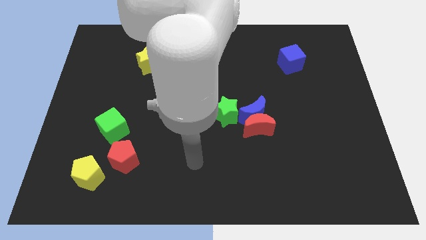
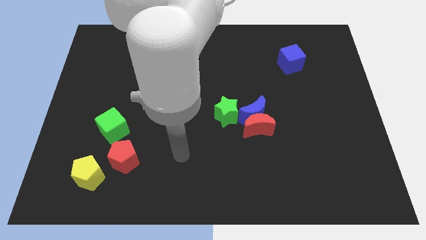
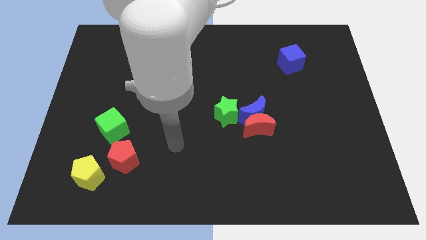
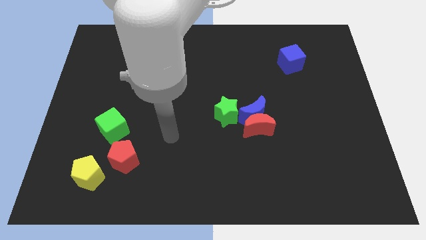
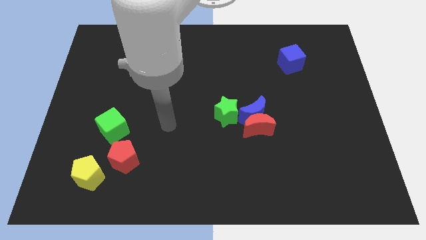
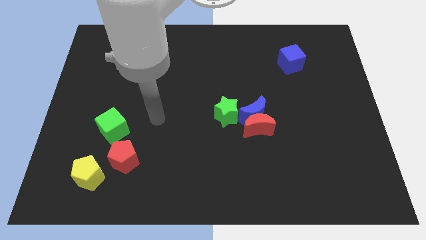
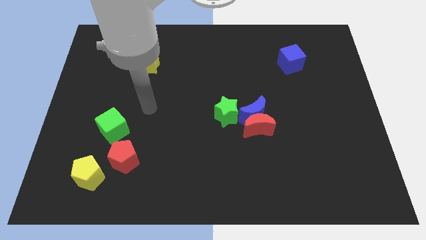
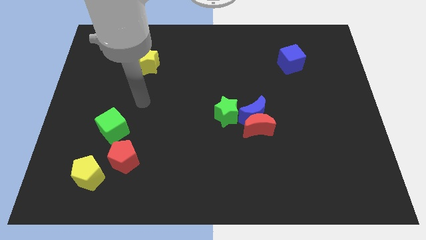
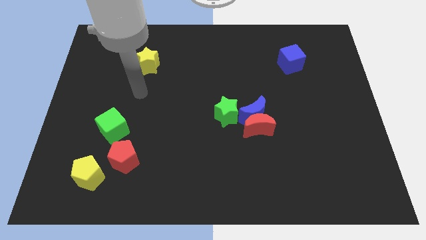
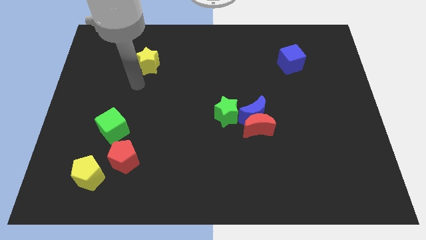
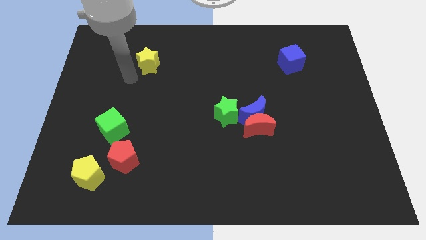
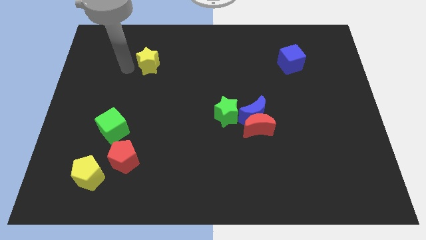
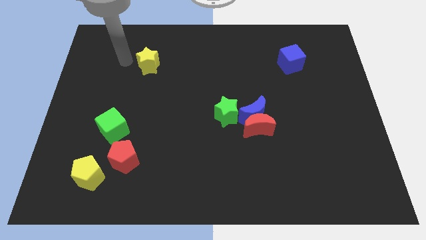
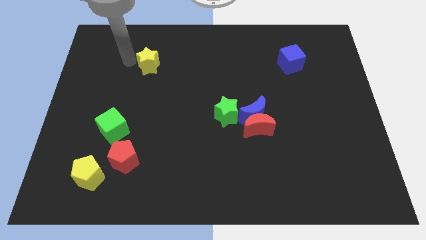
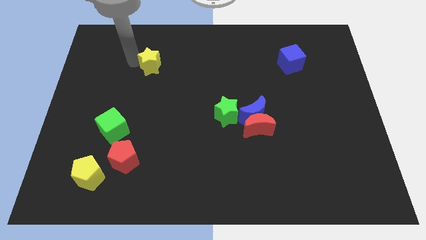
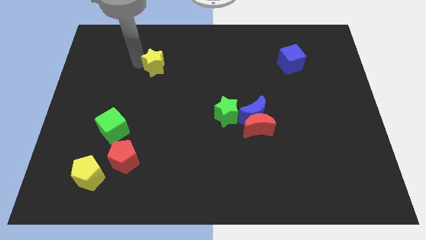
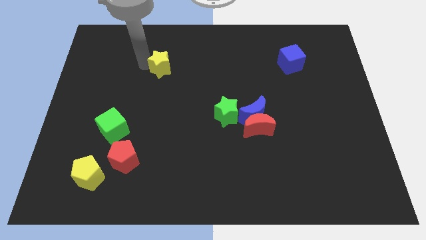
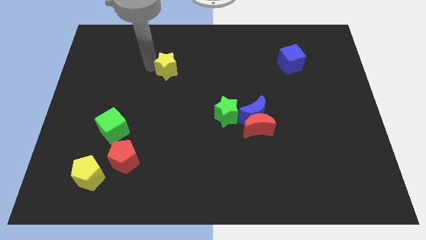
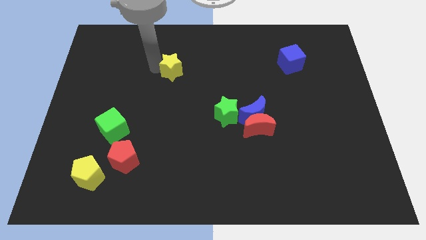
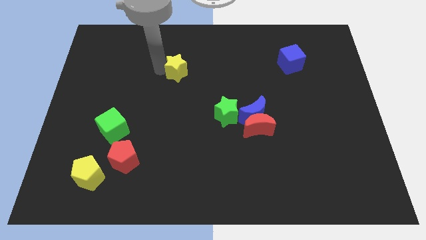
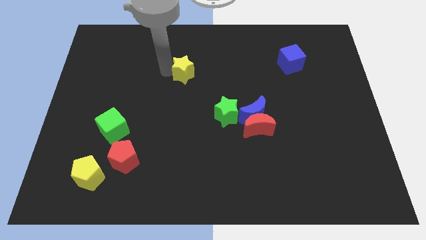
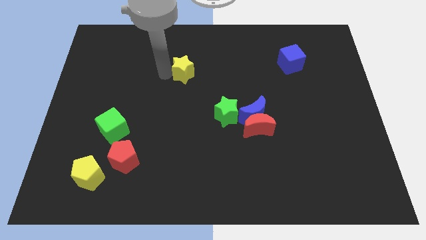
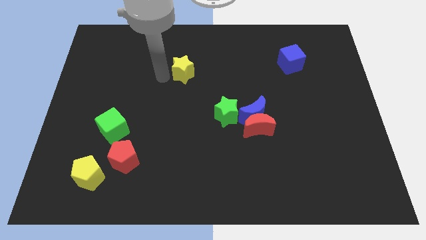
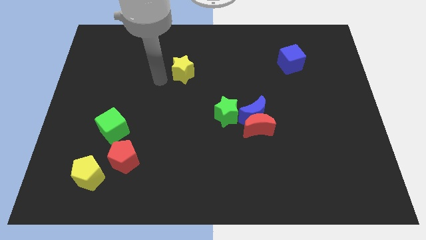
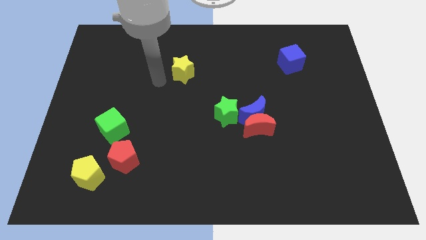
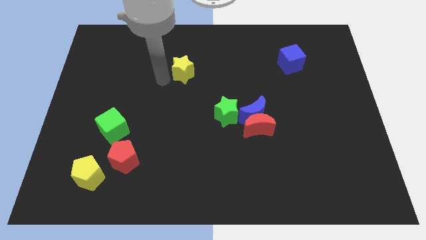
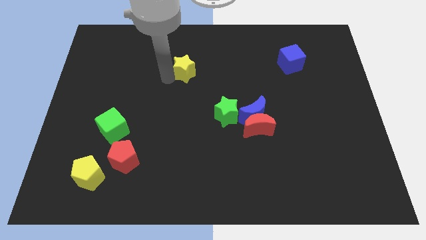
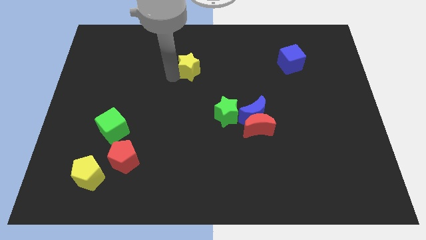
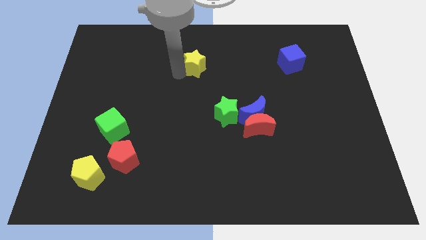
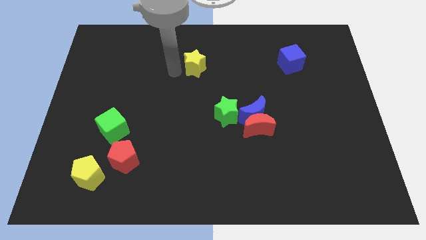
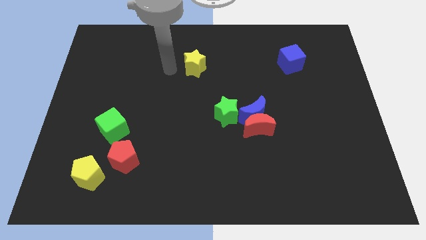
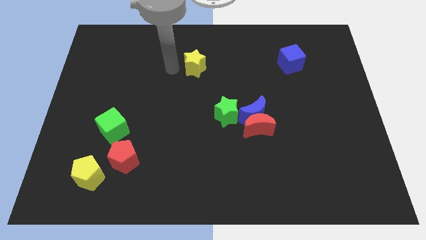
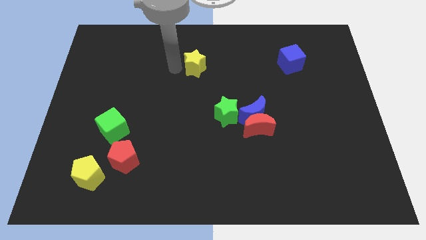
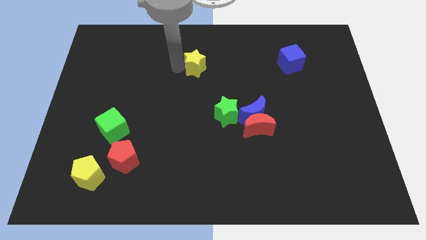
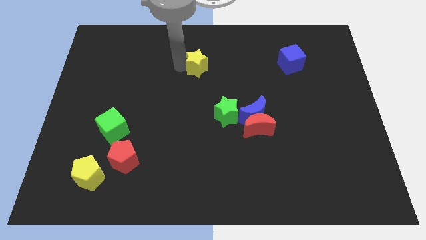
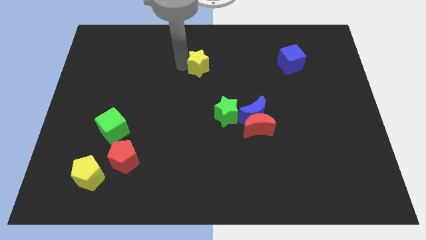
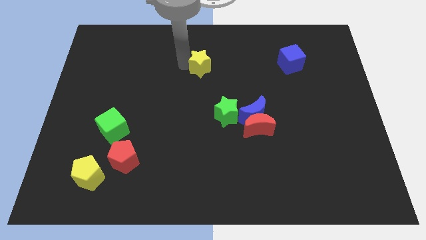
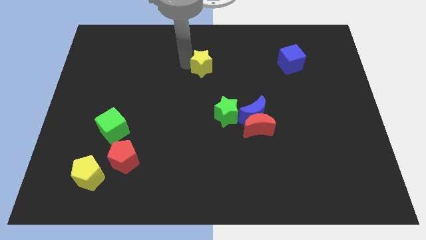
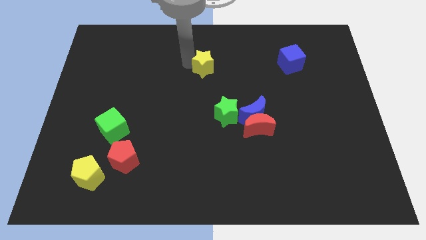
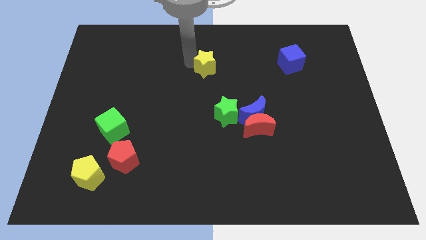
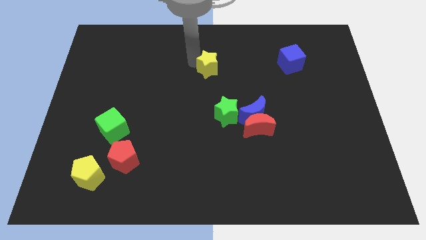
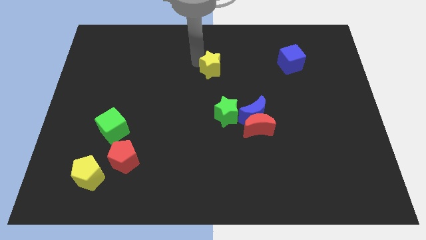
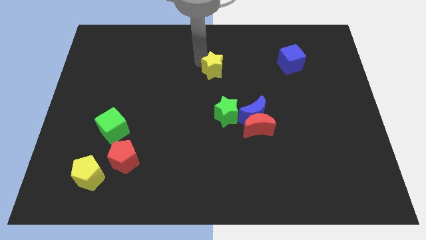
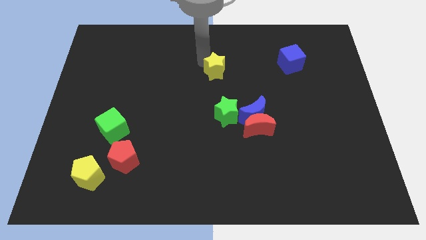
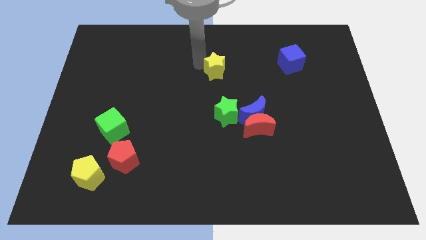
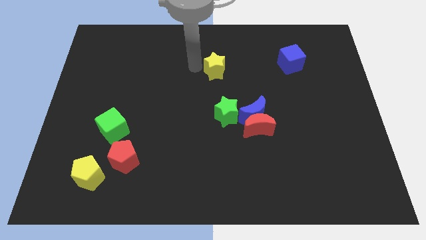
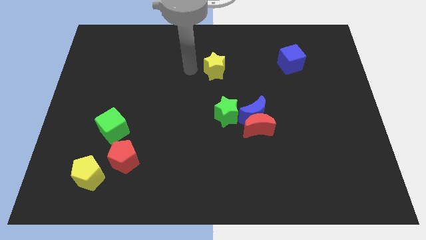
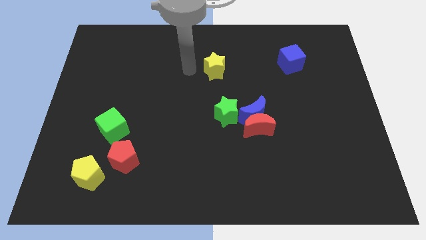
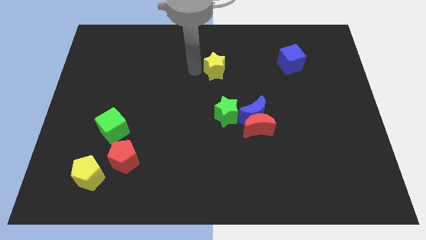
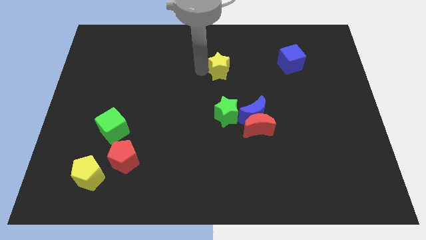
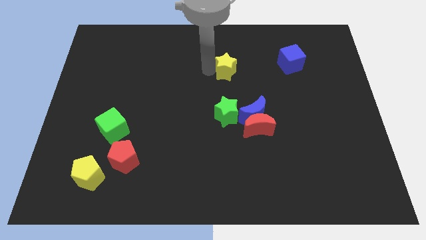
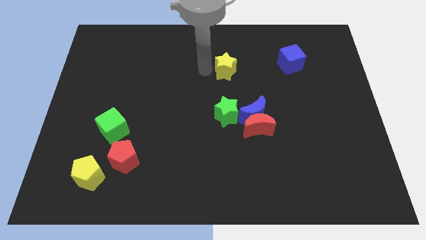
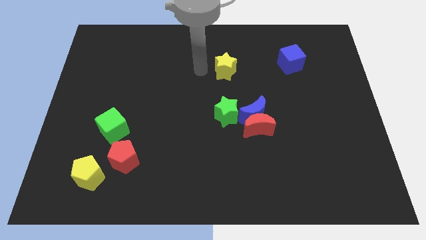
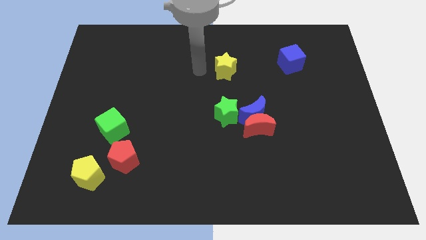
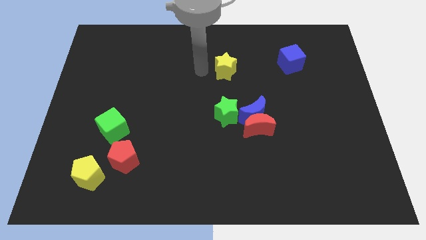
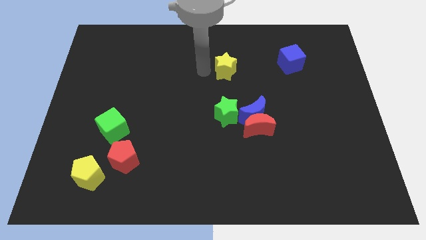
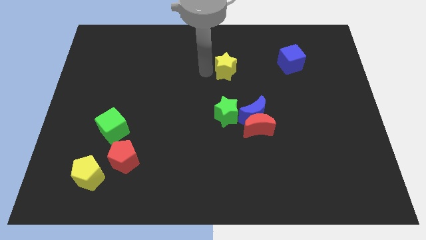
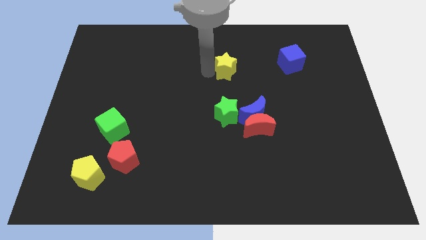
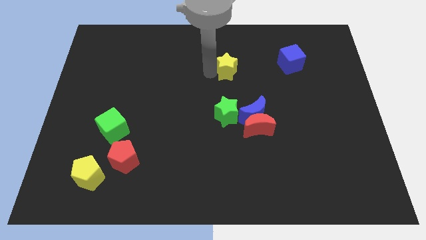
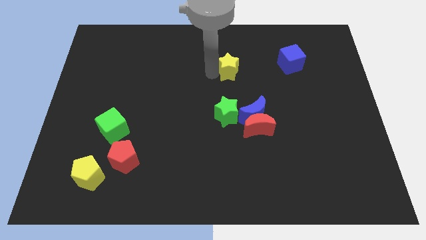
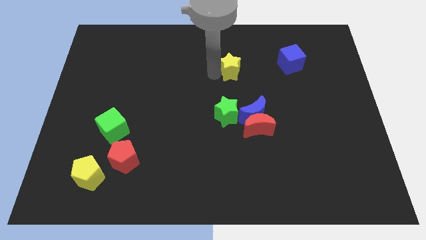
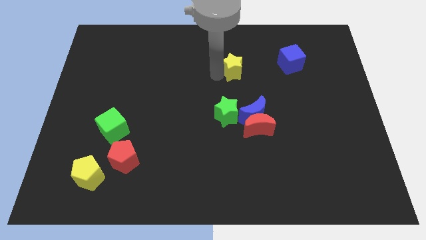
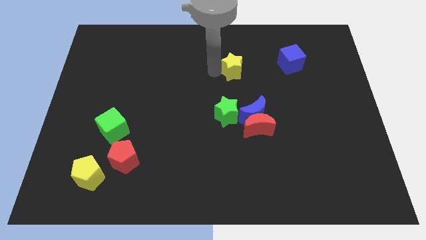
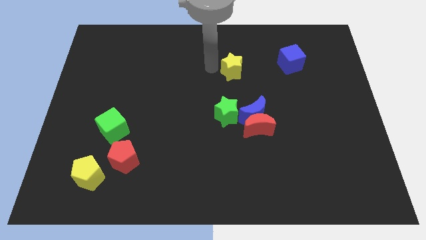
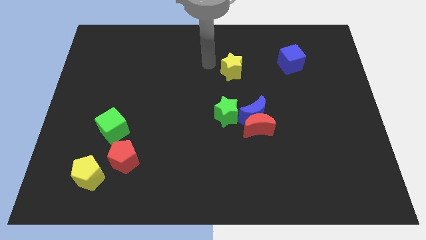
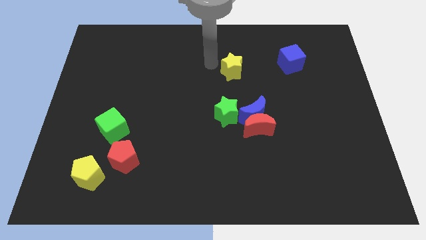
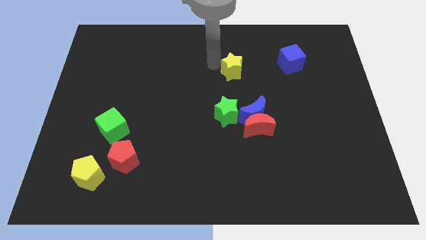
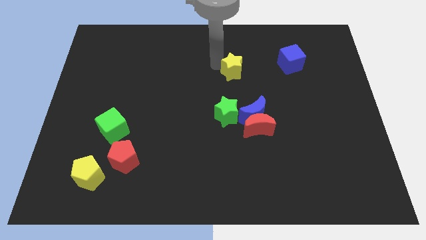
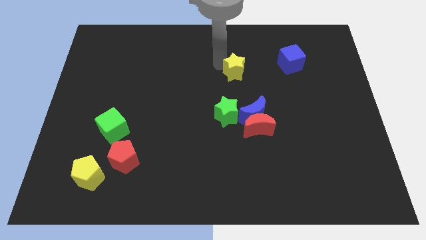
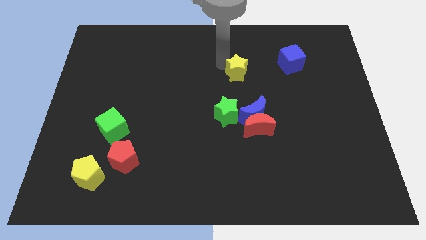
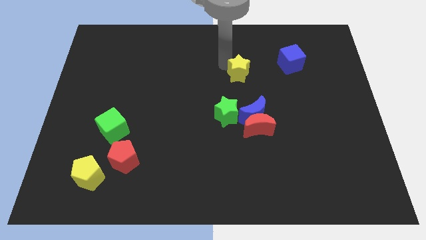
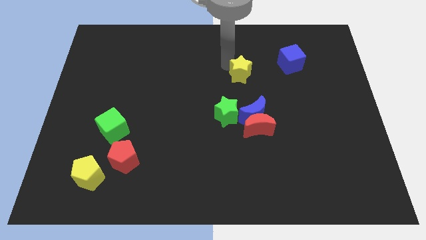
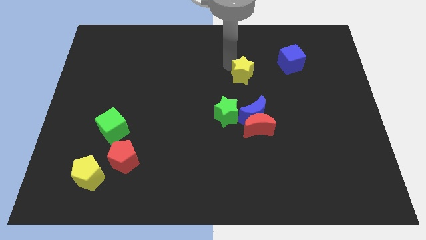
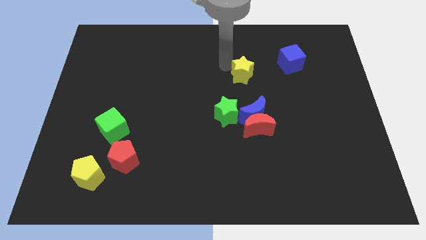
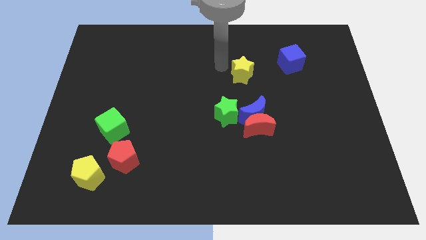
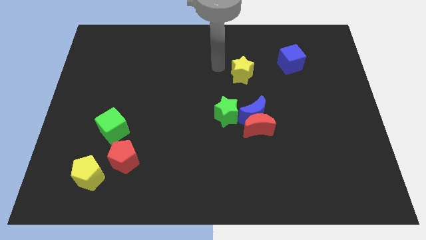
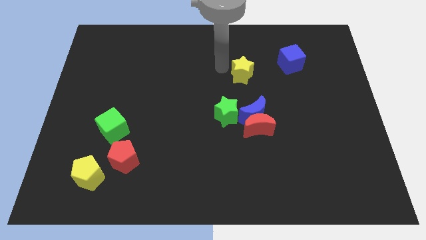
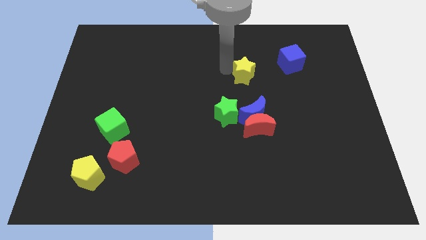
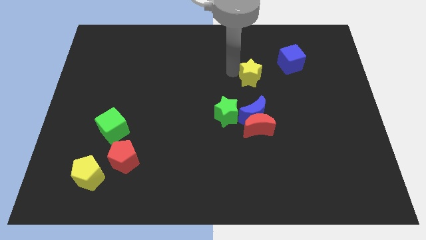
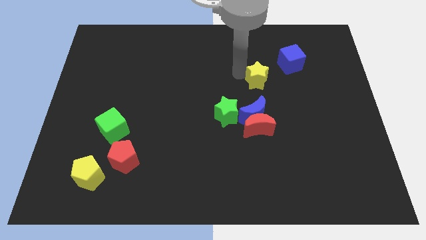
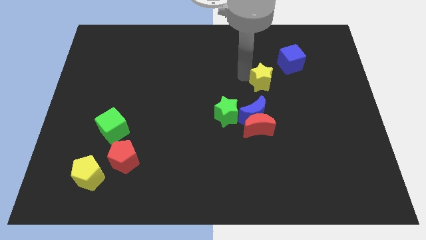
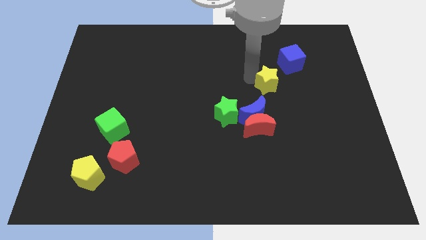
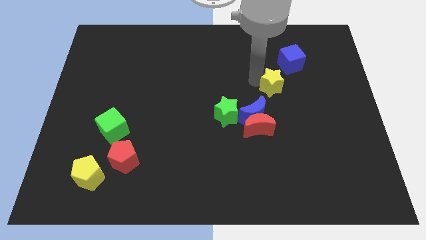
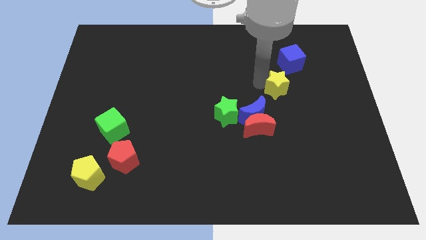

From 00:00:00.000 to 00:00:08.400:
push the yellow star below the blue cube
